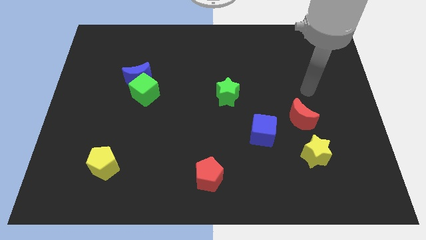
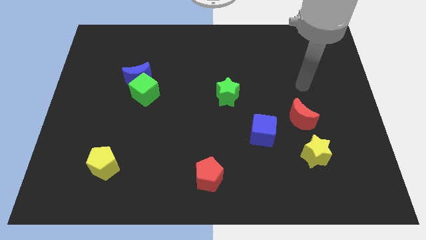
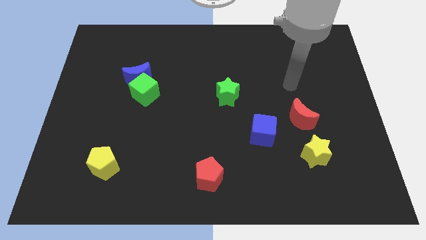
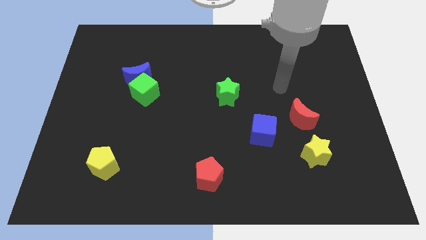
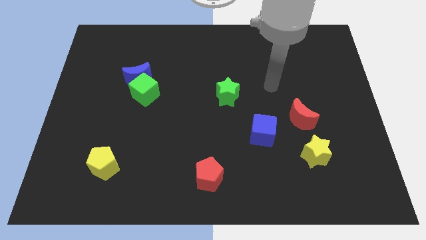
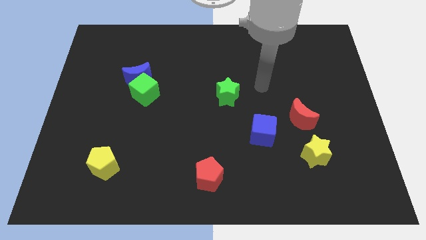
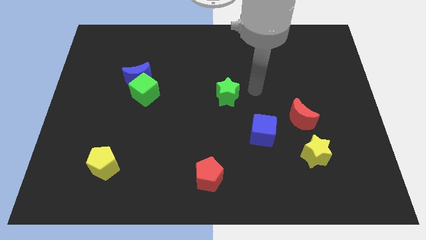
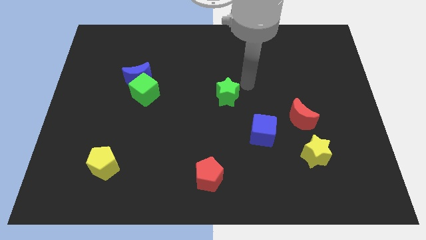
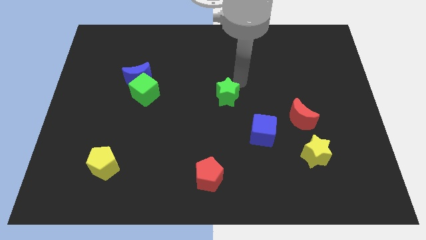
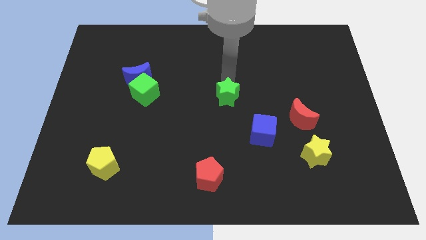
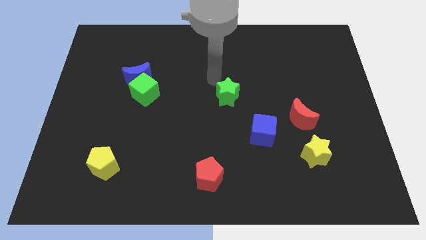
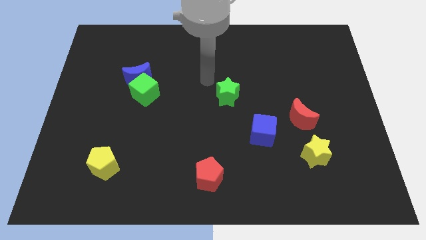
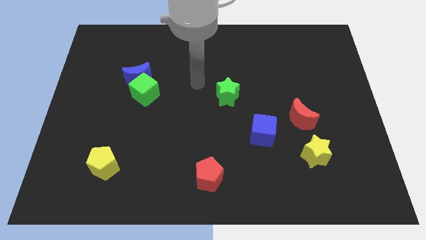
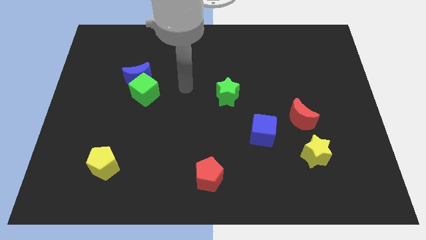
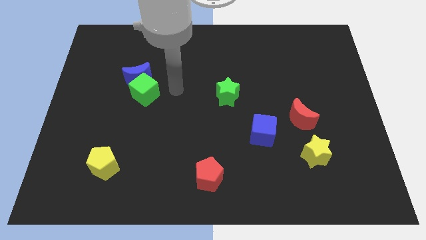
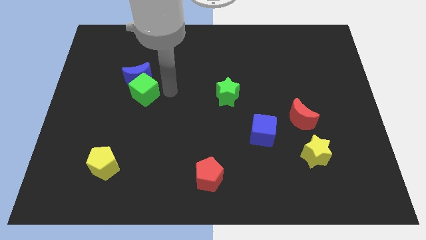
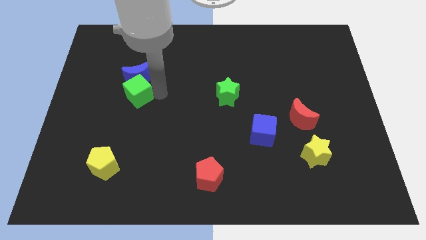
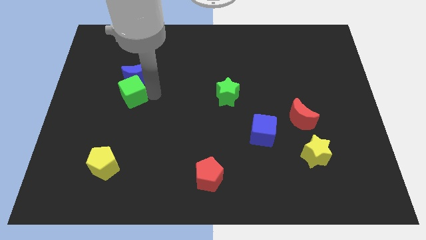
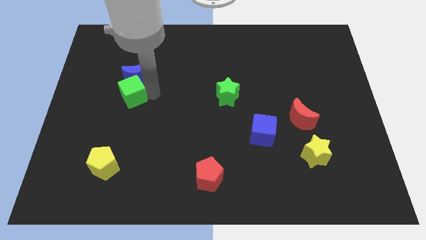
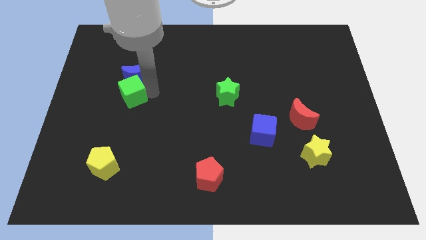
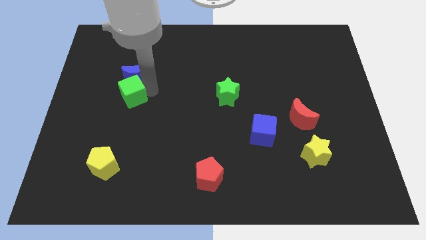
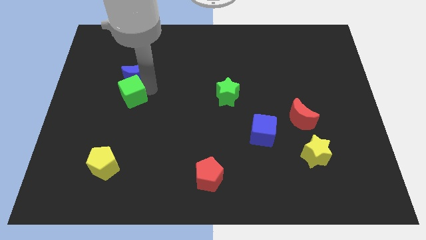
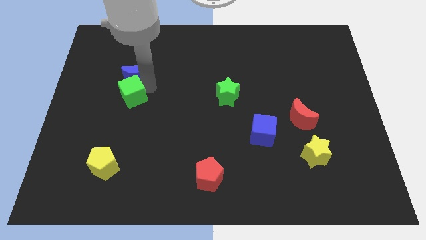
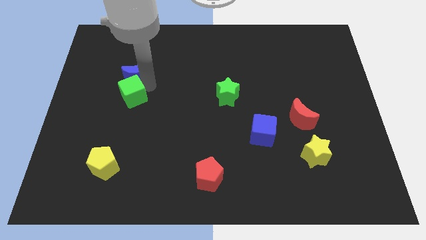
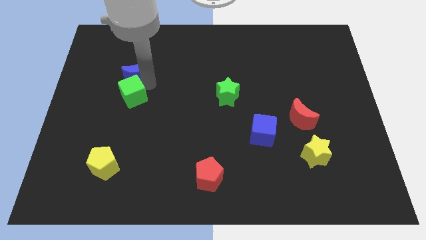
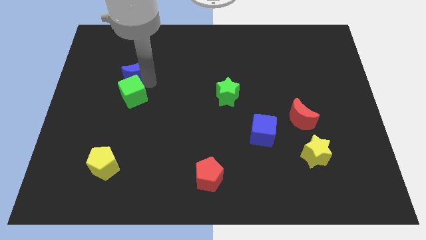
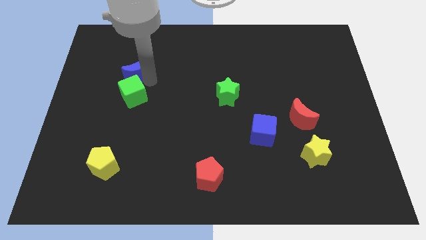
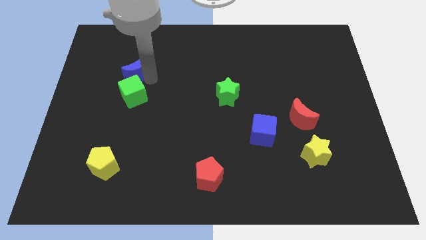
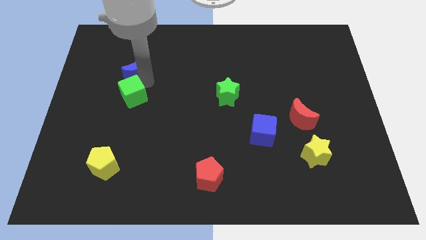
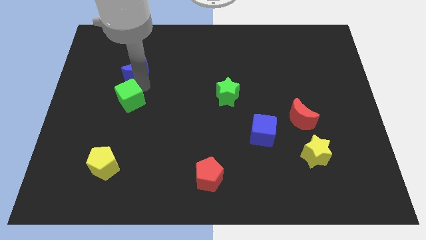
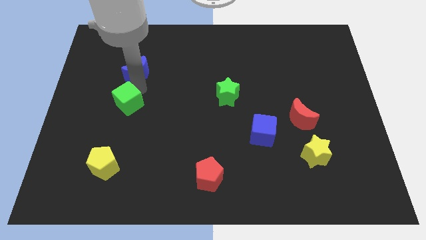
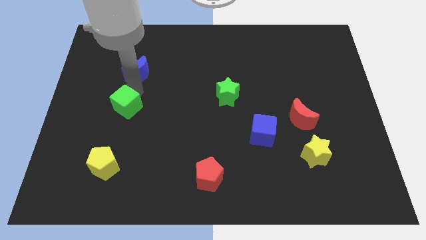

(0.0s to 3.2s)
move the blue moon away from the green cube

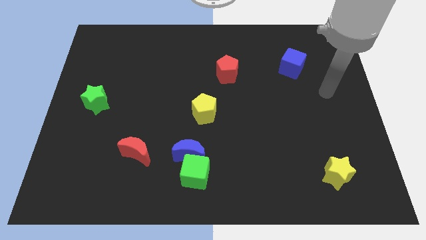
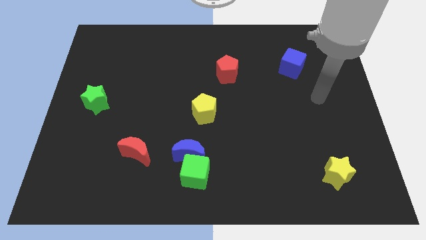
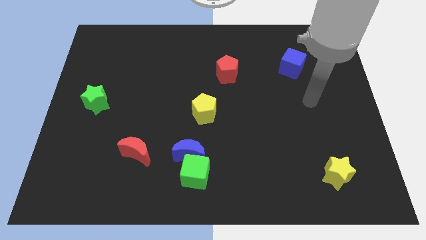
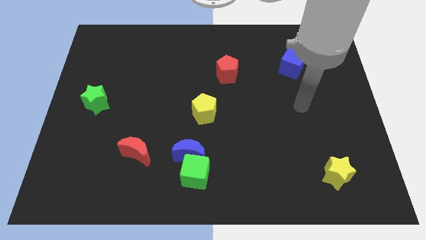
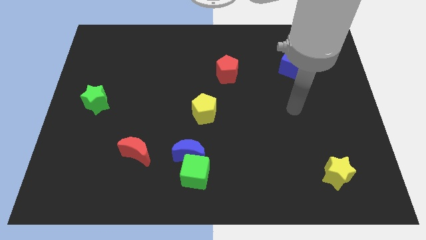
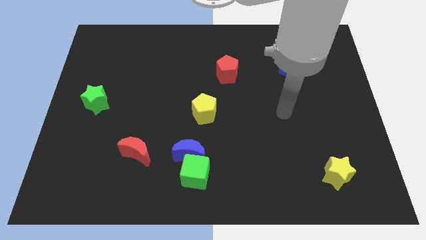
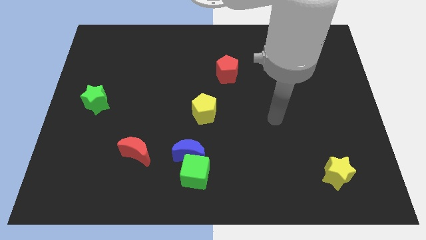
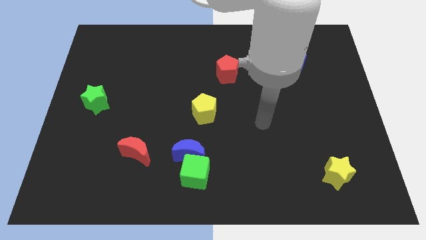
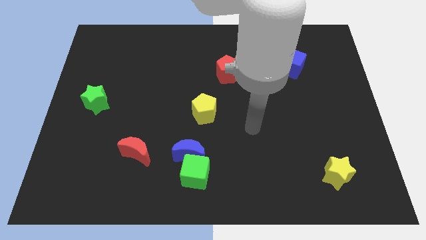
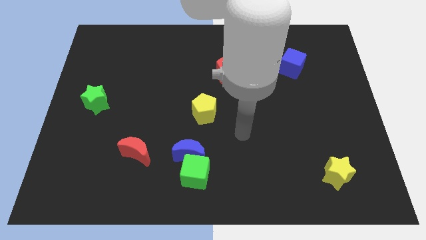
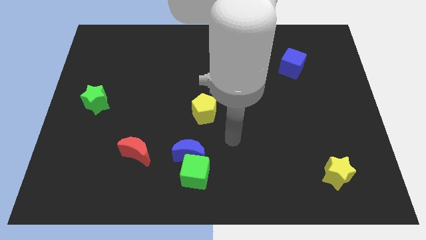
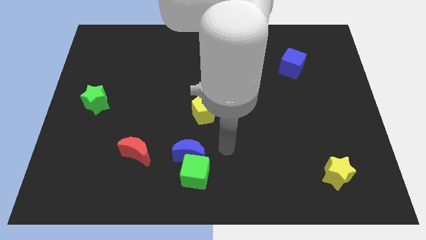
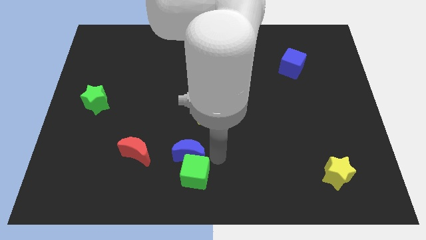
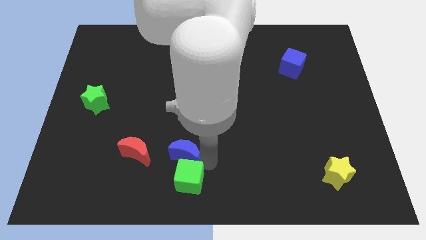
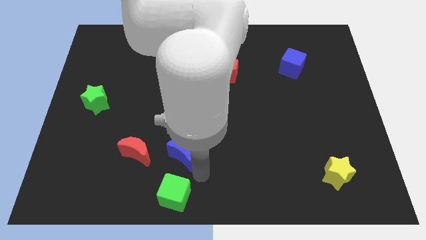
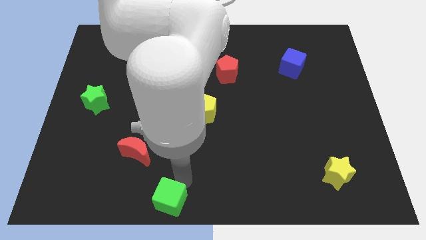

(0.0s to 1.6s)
pull the blue moon apart from the green cube

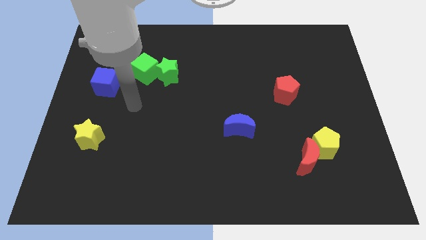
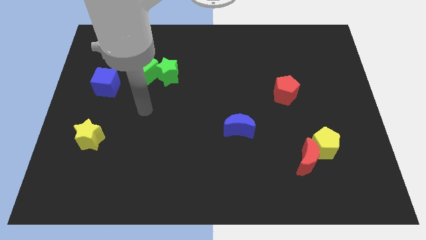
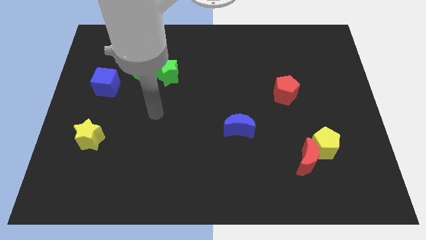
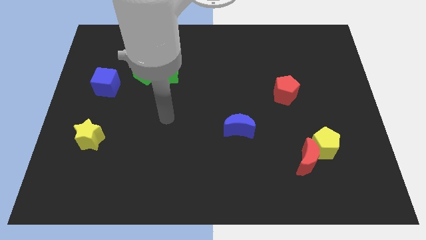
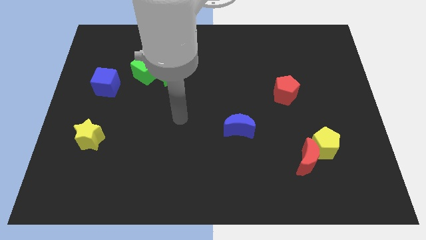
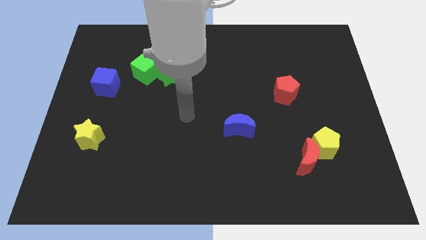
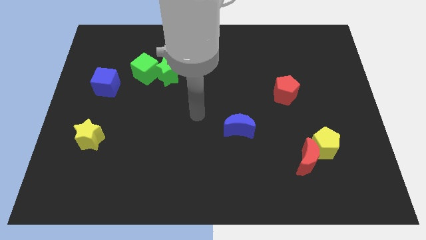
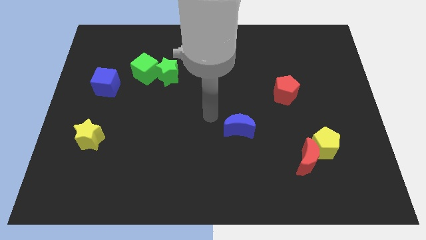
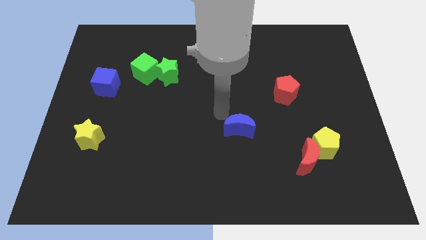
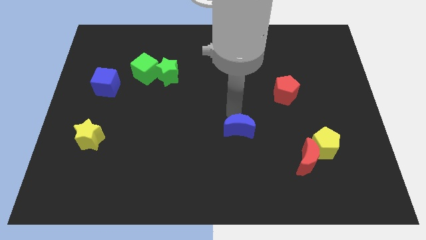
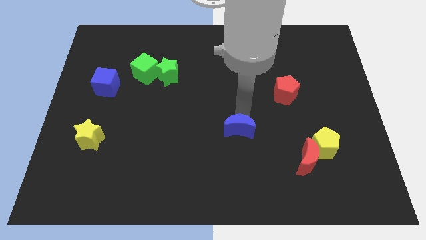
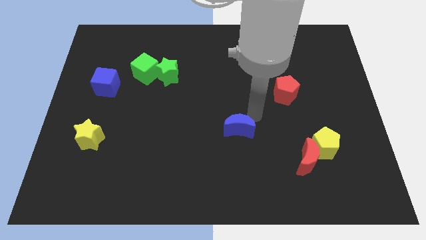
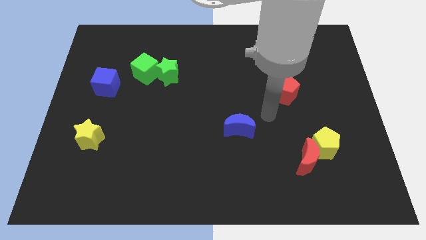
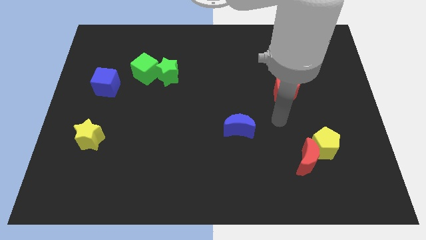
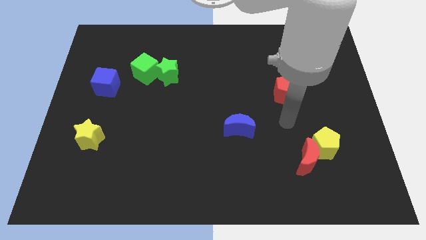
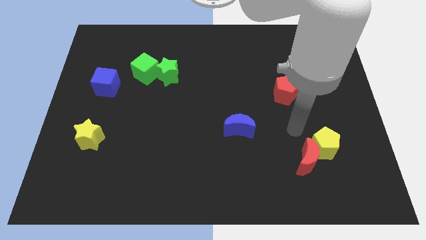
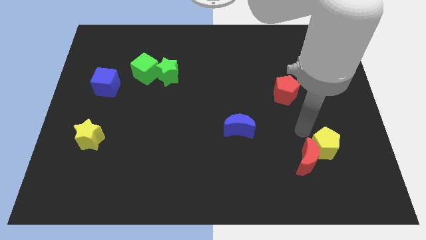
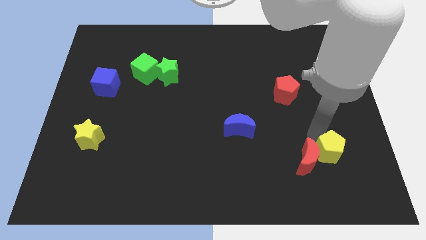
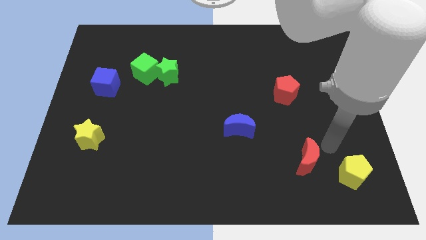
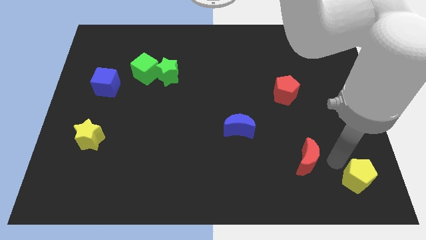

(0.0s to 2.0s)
separate the red moon from the yellow pentagon

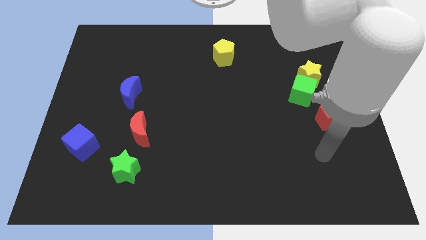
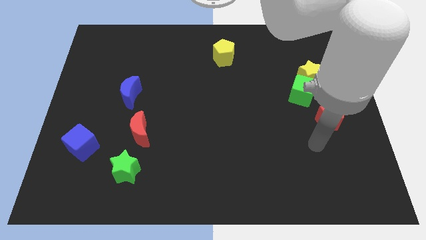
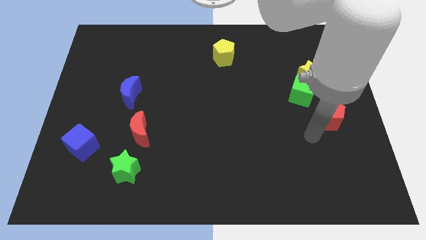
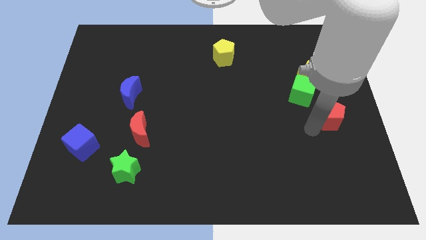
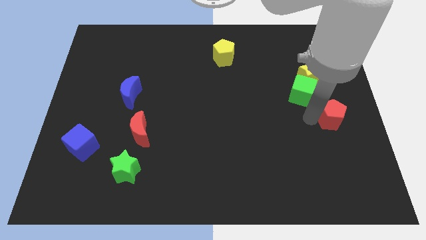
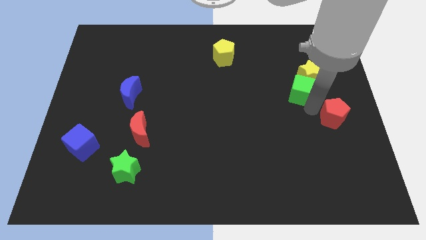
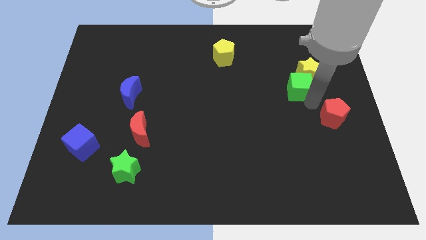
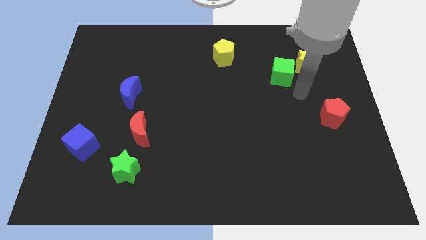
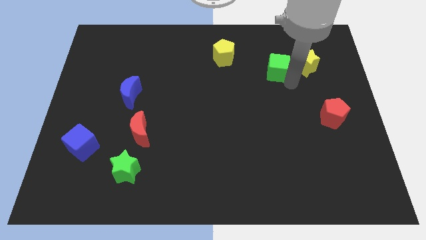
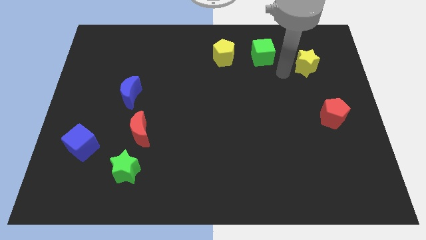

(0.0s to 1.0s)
separate the yellow star from the green cube

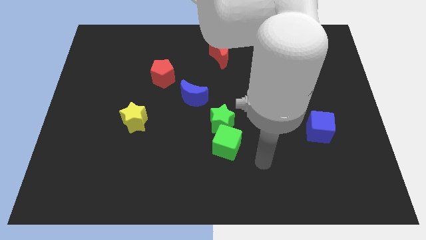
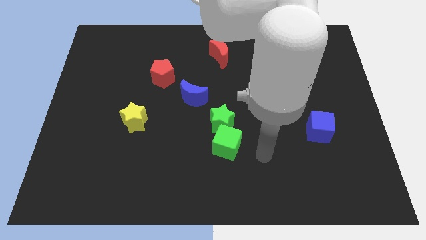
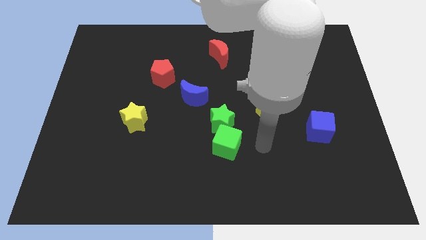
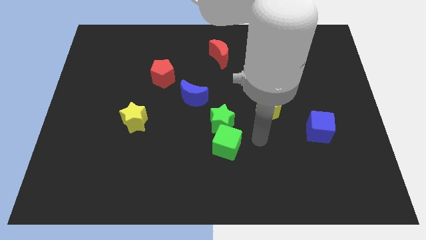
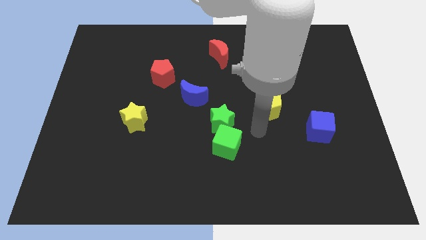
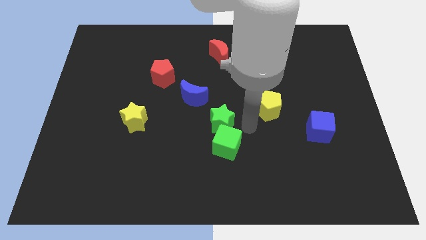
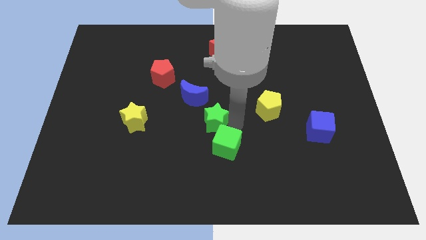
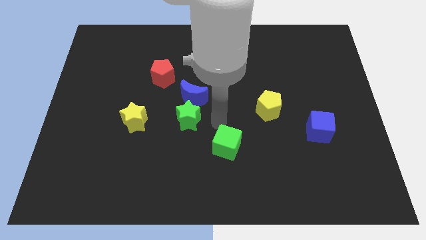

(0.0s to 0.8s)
separate the green cube from the green star

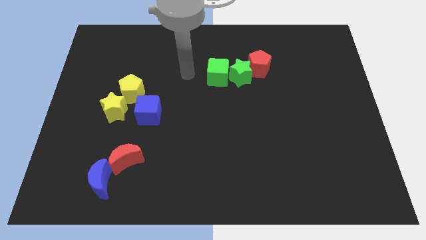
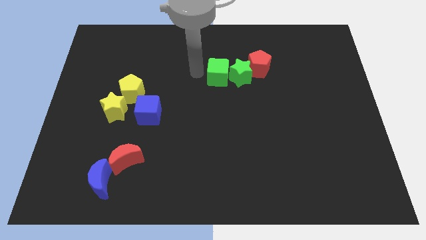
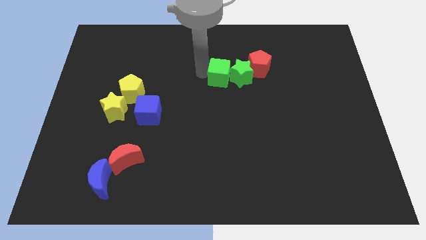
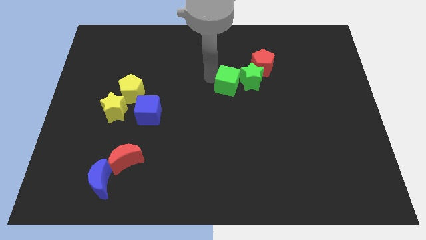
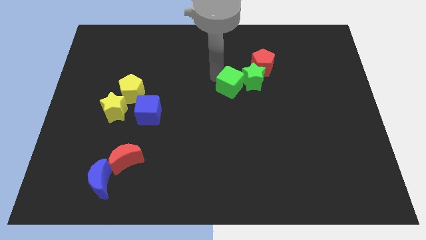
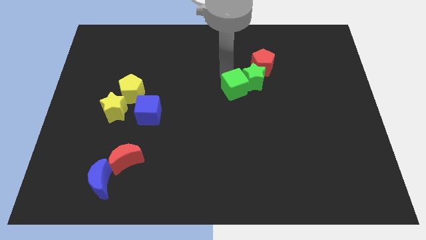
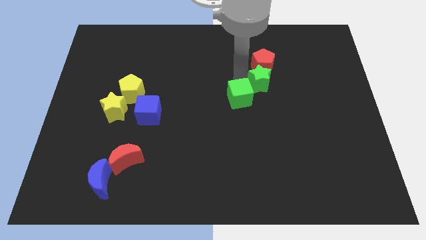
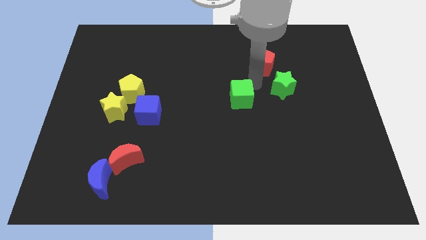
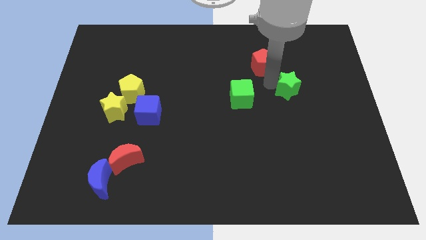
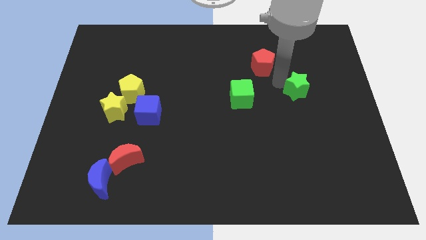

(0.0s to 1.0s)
separate the red pentagon from the green star
